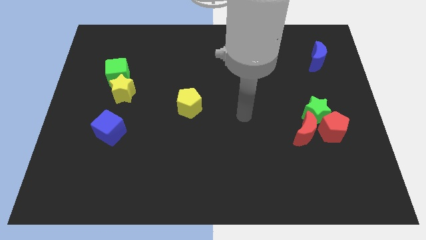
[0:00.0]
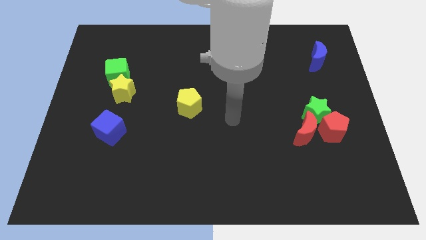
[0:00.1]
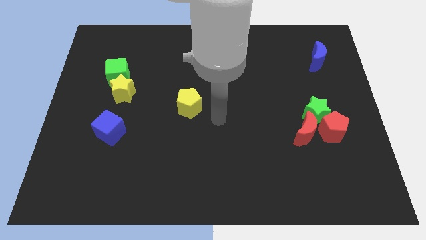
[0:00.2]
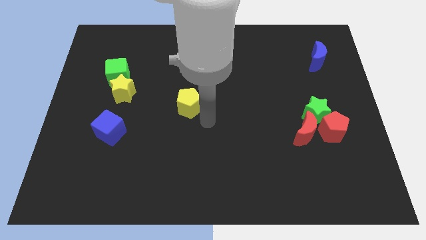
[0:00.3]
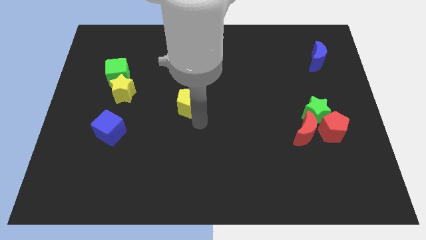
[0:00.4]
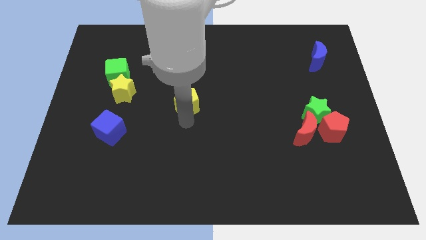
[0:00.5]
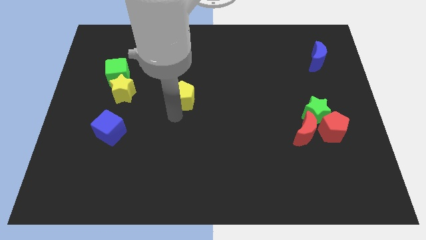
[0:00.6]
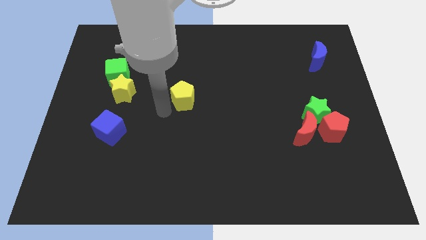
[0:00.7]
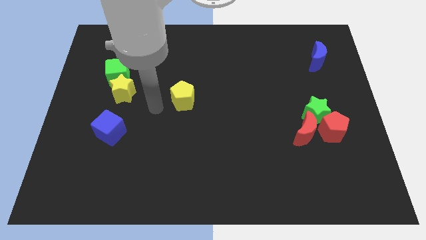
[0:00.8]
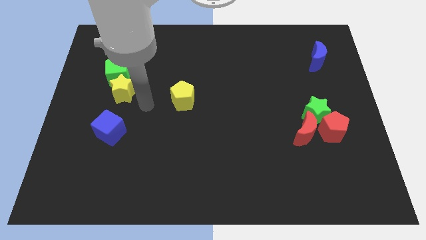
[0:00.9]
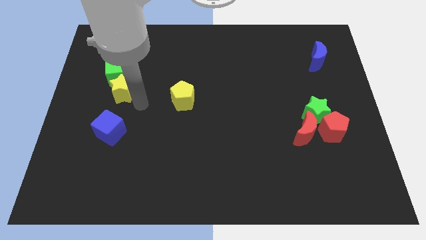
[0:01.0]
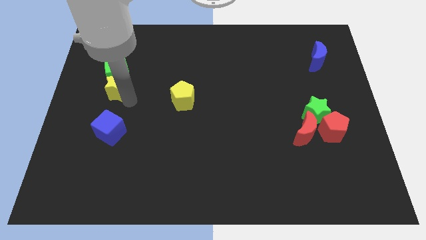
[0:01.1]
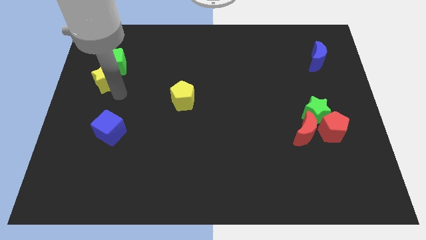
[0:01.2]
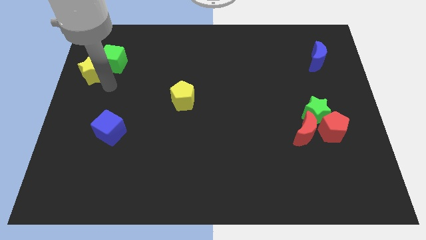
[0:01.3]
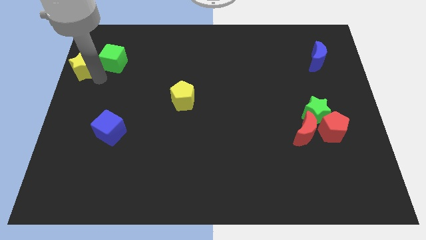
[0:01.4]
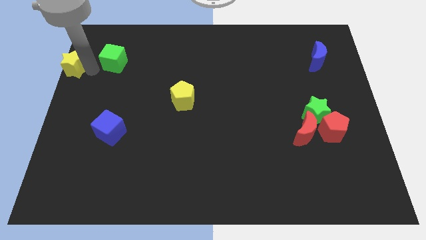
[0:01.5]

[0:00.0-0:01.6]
move the green cube away from the yellow star

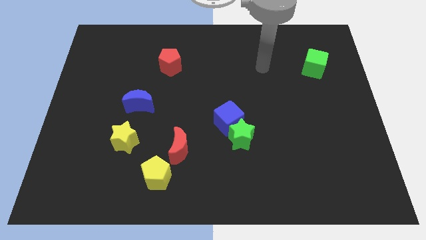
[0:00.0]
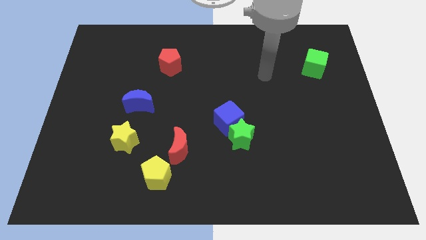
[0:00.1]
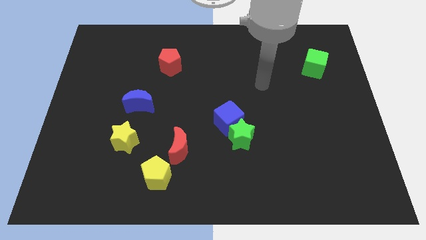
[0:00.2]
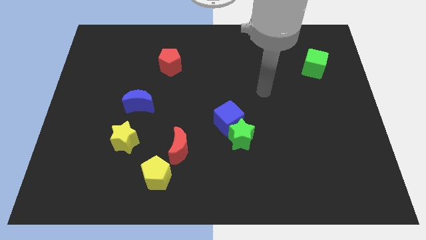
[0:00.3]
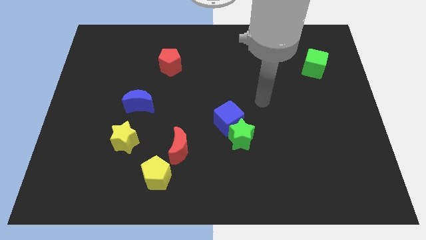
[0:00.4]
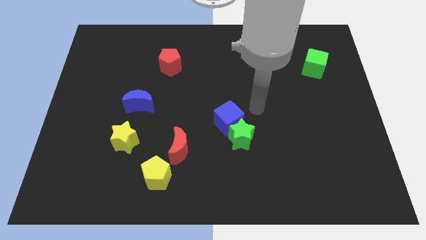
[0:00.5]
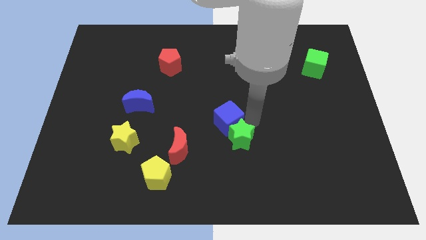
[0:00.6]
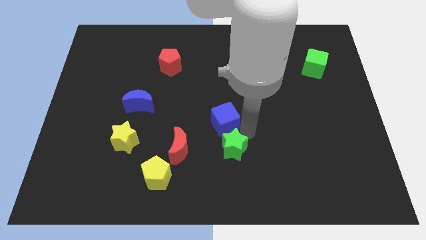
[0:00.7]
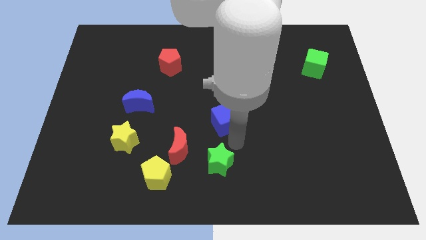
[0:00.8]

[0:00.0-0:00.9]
move the blue cube away from the green star

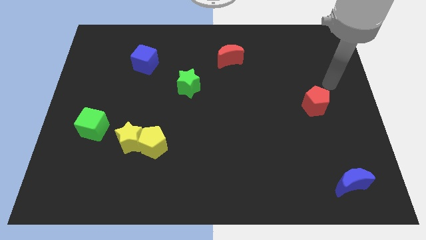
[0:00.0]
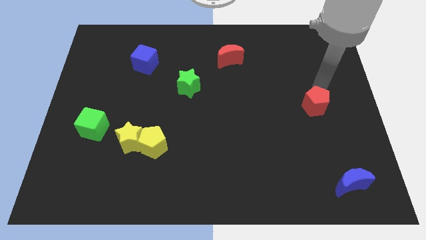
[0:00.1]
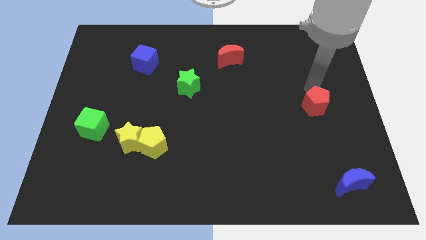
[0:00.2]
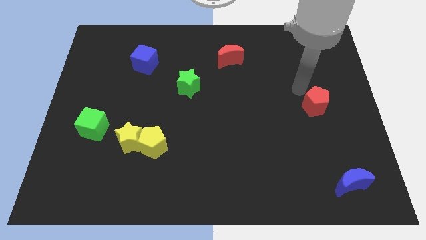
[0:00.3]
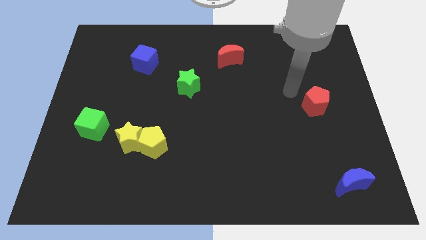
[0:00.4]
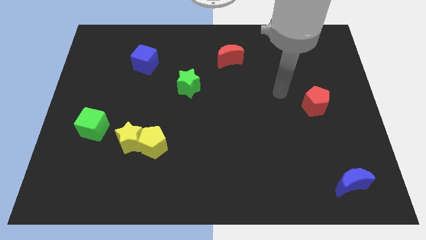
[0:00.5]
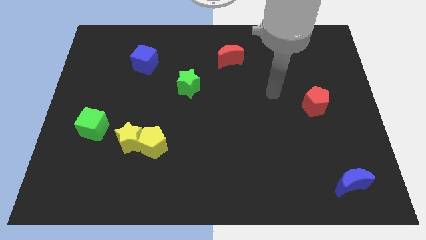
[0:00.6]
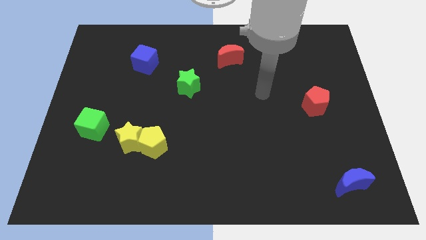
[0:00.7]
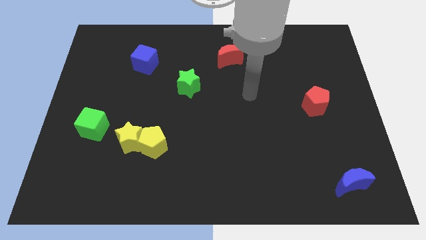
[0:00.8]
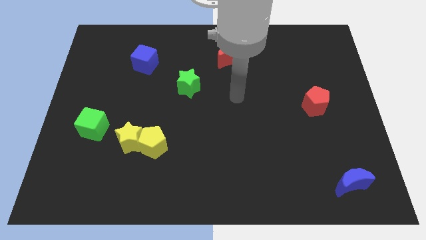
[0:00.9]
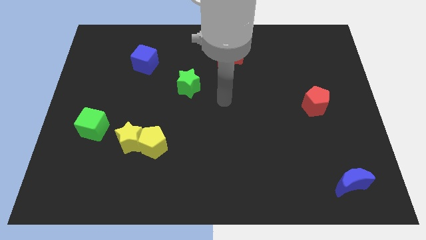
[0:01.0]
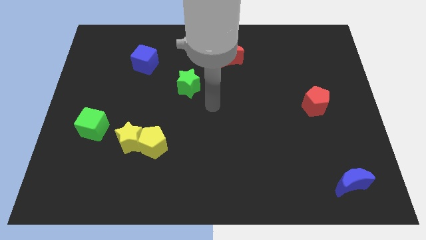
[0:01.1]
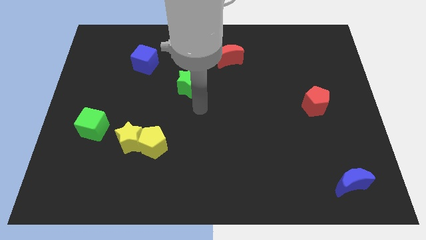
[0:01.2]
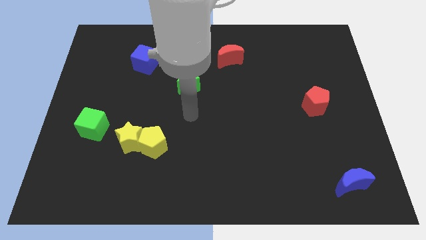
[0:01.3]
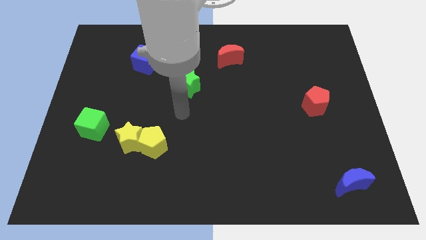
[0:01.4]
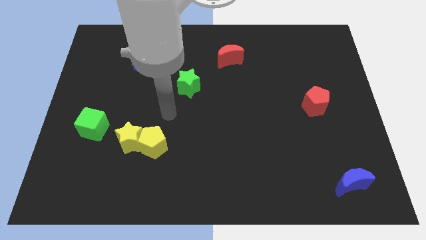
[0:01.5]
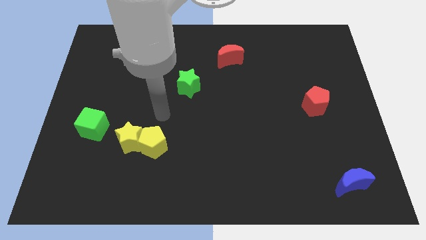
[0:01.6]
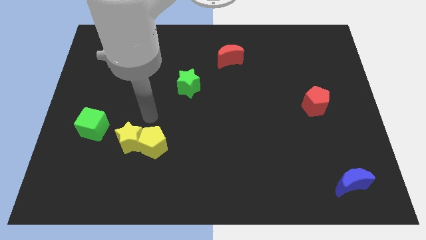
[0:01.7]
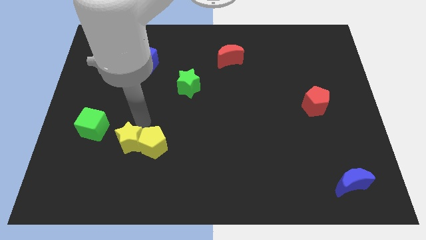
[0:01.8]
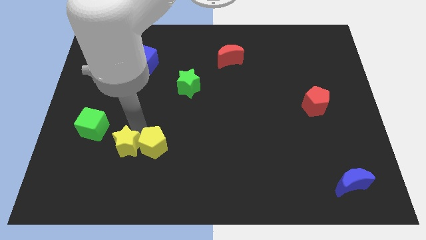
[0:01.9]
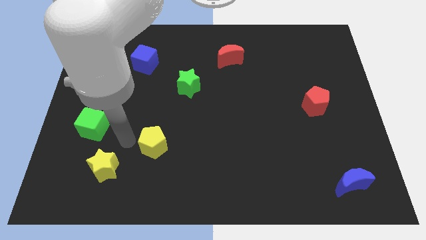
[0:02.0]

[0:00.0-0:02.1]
move the yellow pentagon away from the yellow star

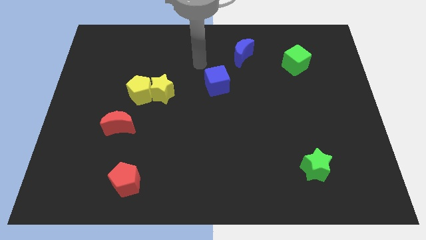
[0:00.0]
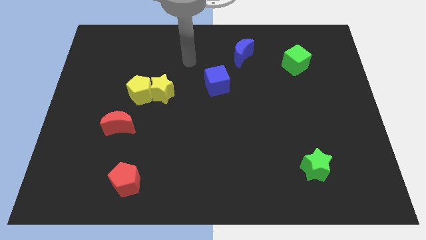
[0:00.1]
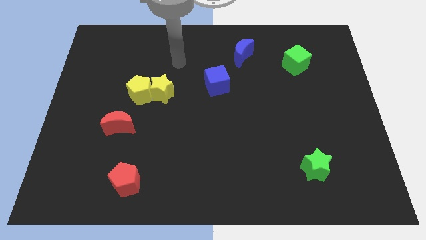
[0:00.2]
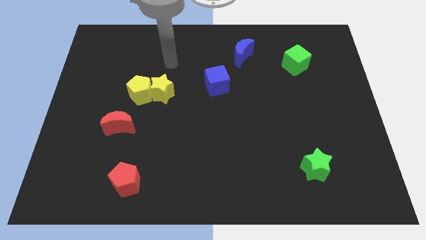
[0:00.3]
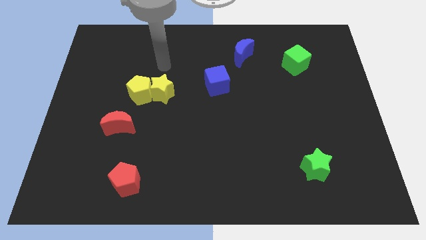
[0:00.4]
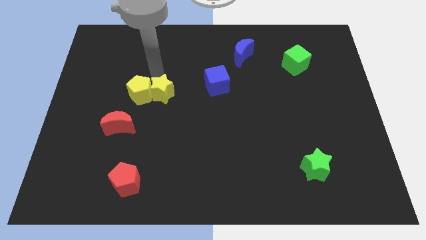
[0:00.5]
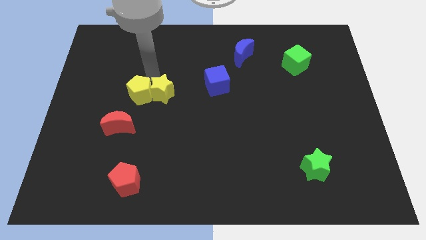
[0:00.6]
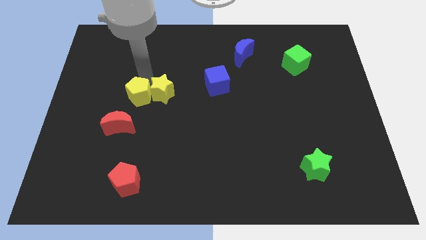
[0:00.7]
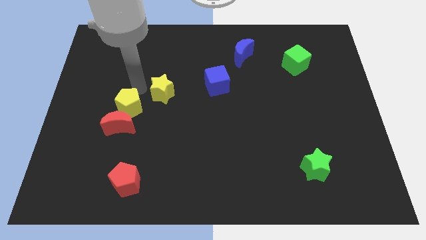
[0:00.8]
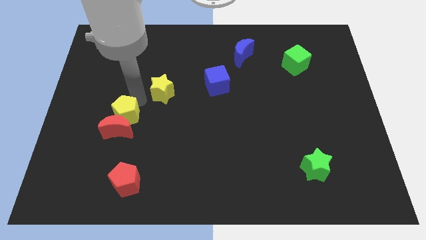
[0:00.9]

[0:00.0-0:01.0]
move the yellow star away from the yellow pentagon

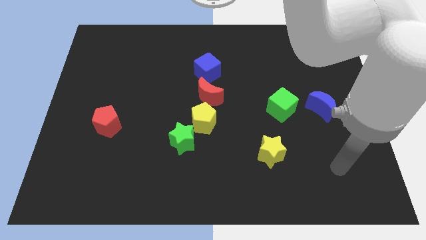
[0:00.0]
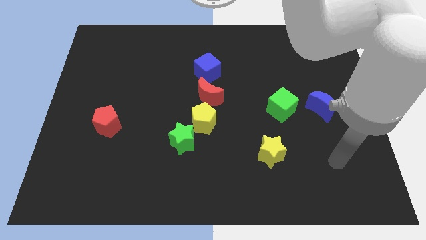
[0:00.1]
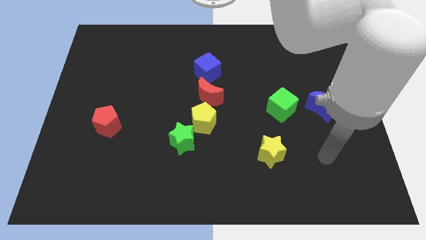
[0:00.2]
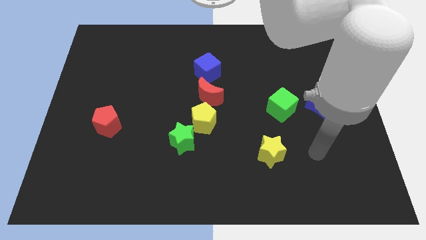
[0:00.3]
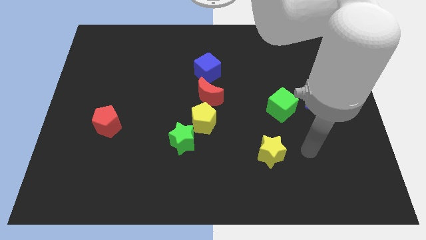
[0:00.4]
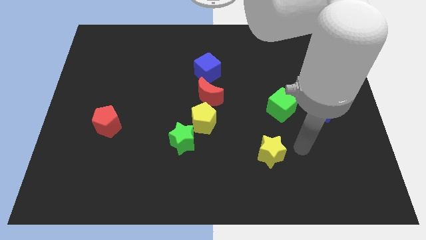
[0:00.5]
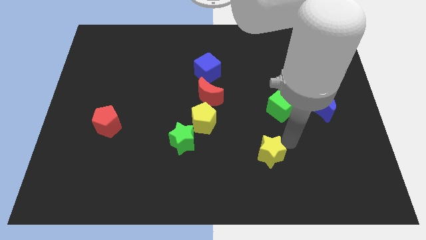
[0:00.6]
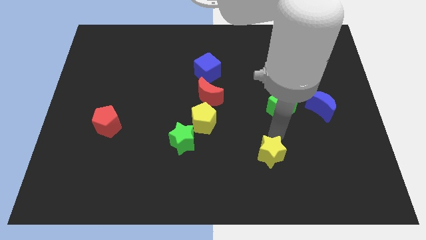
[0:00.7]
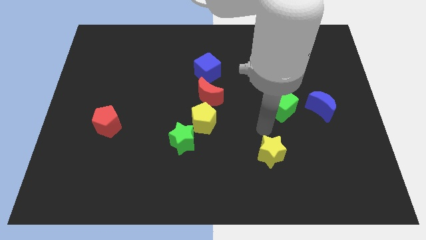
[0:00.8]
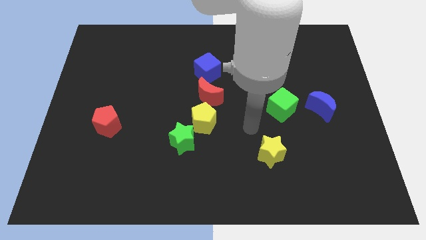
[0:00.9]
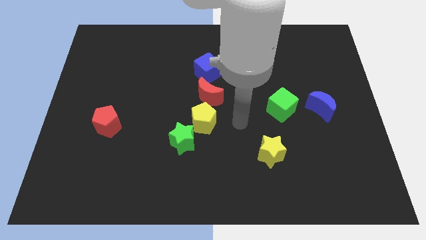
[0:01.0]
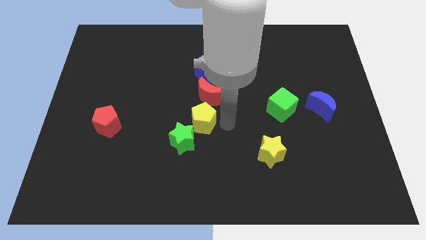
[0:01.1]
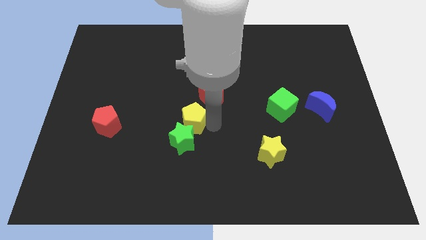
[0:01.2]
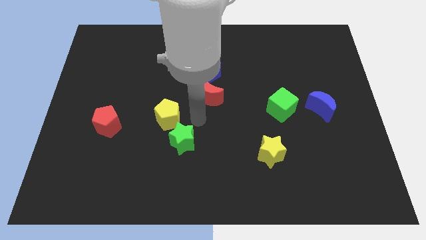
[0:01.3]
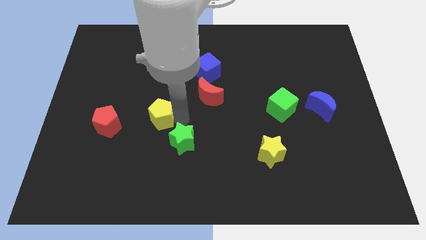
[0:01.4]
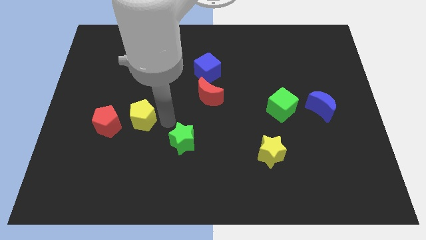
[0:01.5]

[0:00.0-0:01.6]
separate the green star from the yellow pentagon

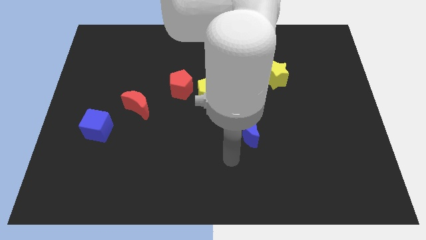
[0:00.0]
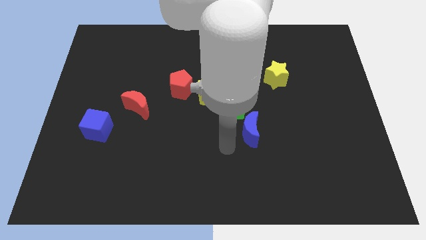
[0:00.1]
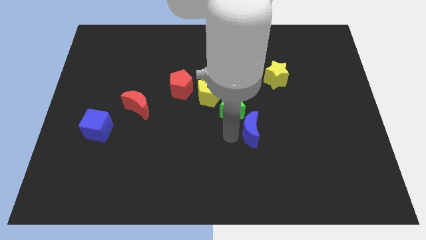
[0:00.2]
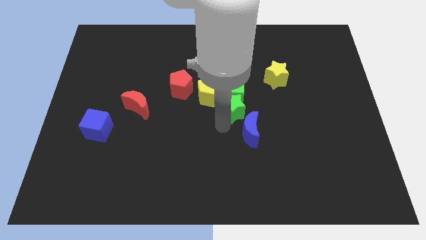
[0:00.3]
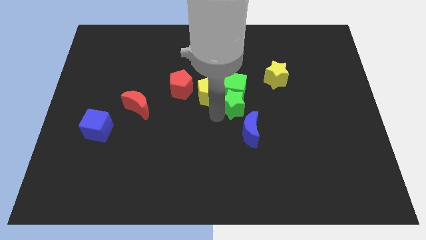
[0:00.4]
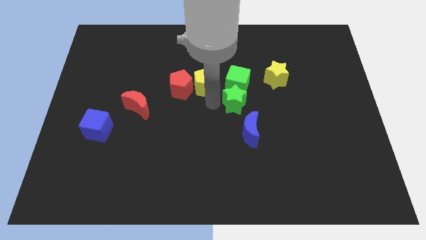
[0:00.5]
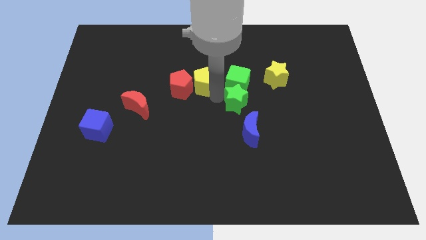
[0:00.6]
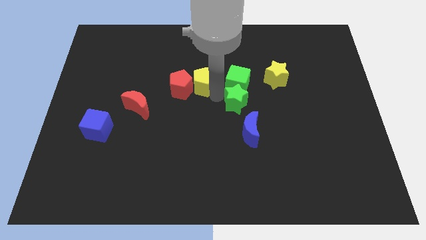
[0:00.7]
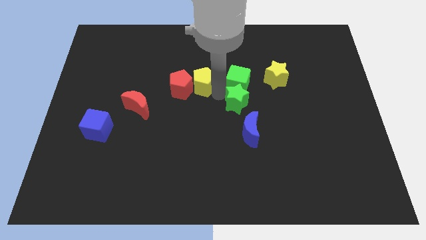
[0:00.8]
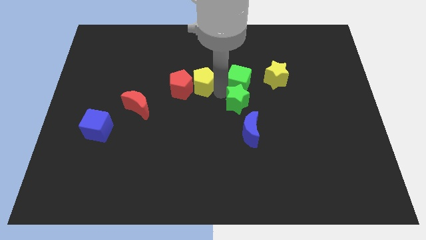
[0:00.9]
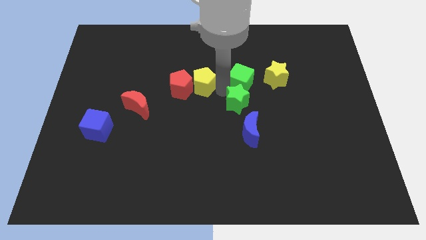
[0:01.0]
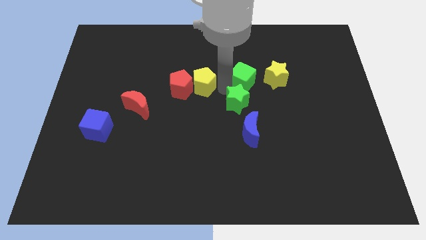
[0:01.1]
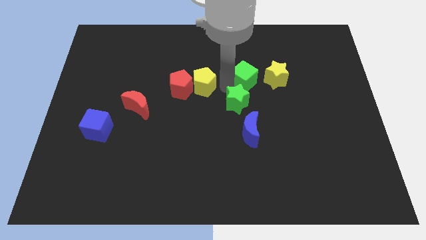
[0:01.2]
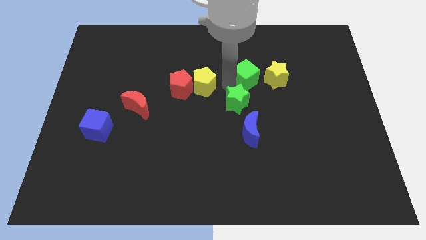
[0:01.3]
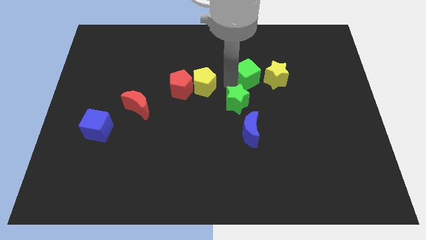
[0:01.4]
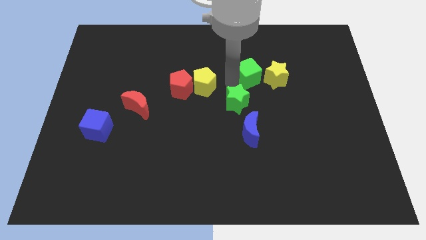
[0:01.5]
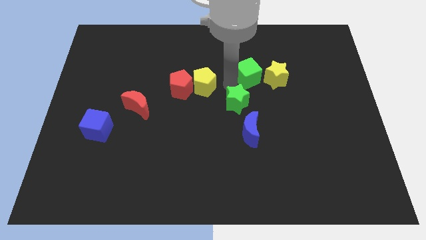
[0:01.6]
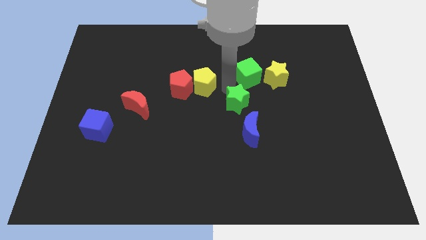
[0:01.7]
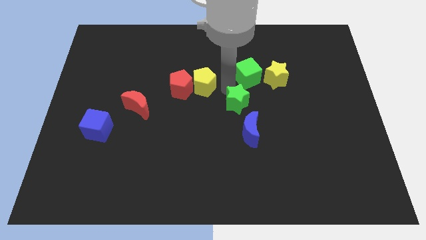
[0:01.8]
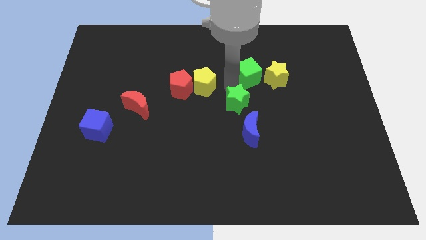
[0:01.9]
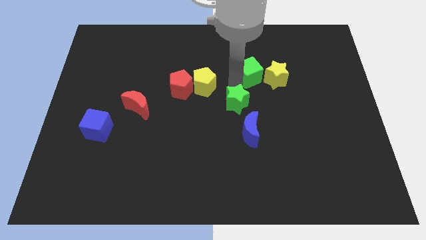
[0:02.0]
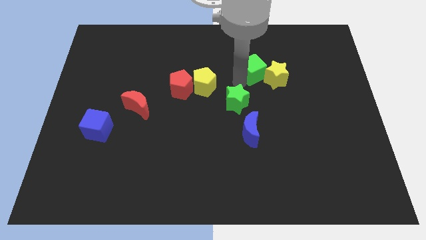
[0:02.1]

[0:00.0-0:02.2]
pull the green cube apart from the green star and yellow pentagon
